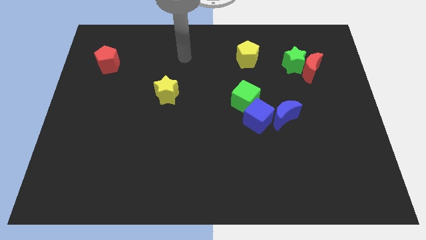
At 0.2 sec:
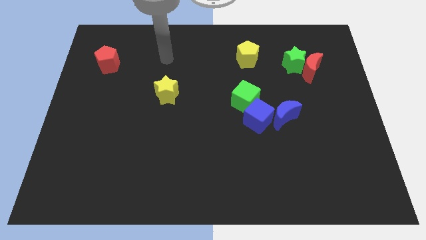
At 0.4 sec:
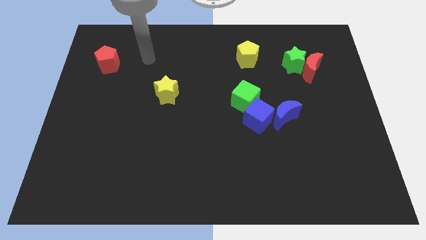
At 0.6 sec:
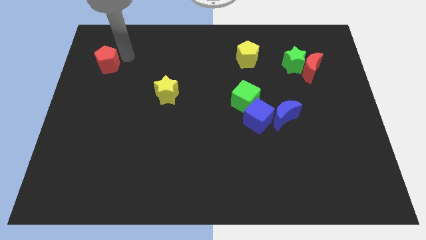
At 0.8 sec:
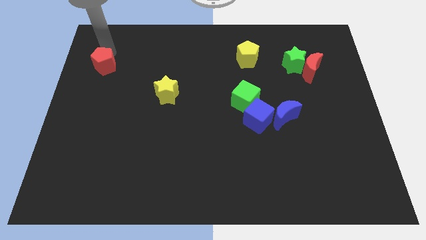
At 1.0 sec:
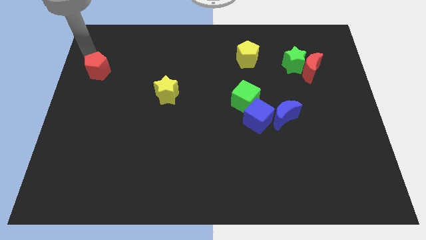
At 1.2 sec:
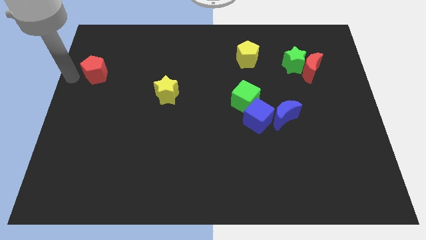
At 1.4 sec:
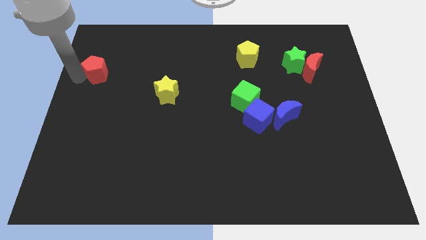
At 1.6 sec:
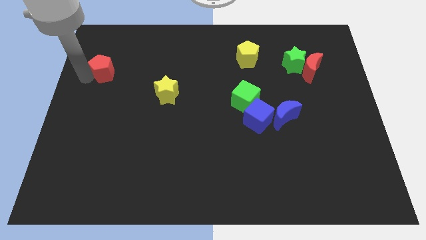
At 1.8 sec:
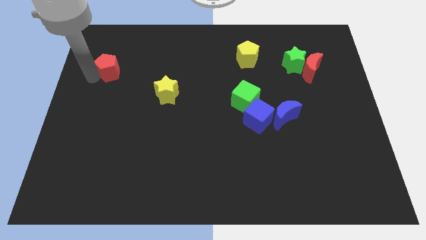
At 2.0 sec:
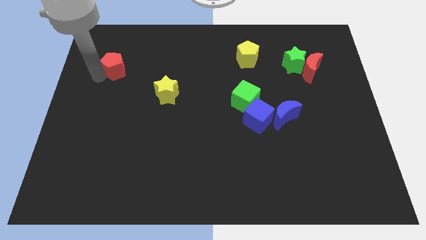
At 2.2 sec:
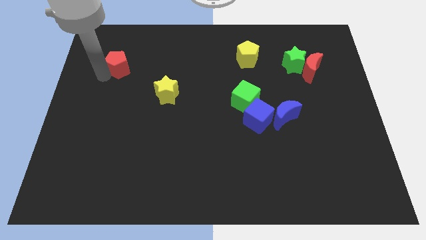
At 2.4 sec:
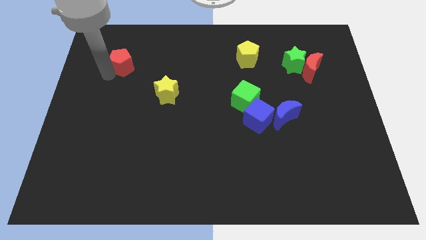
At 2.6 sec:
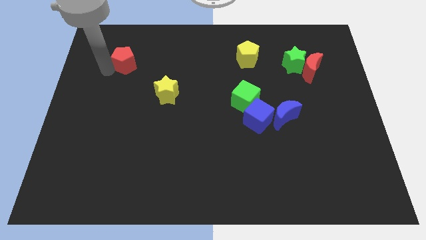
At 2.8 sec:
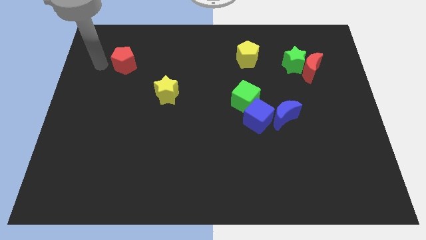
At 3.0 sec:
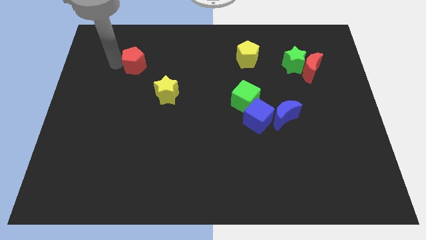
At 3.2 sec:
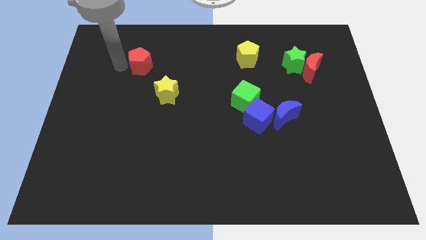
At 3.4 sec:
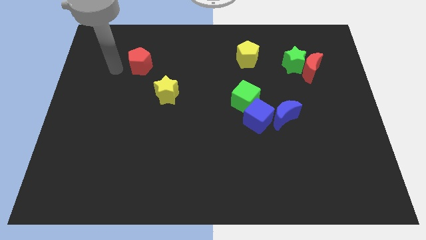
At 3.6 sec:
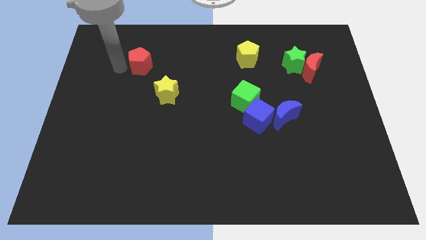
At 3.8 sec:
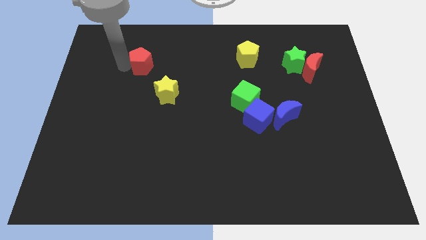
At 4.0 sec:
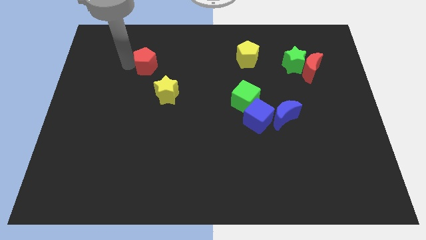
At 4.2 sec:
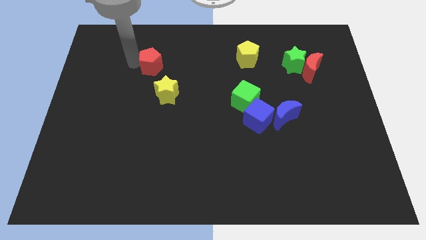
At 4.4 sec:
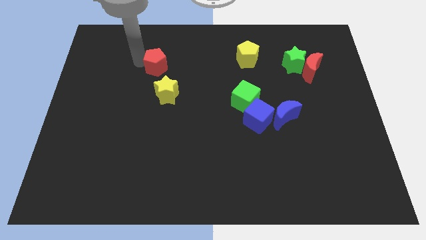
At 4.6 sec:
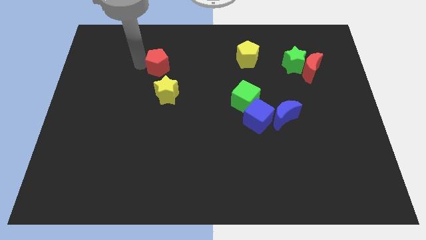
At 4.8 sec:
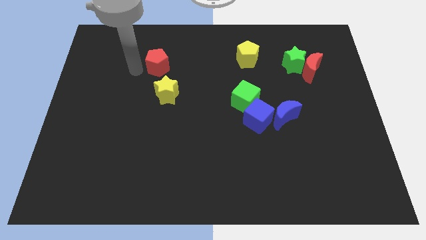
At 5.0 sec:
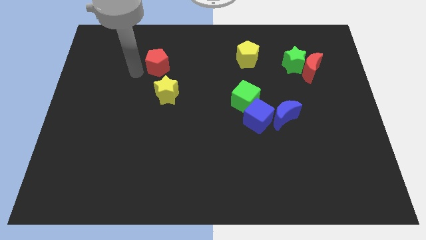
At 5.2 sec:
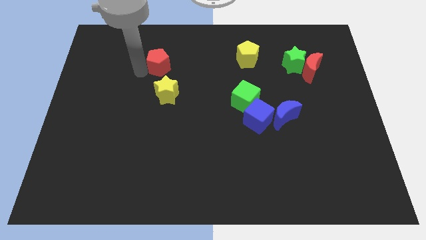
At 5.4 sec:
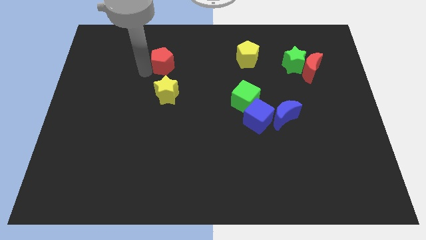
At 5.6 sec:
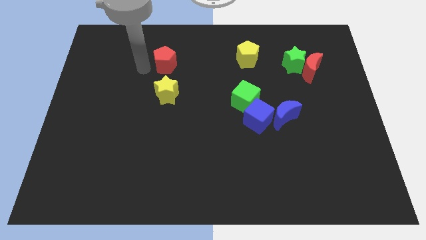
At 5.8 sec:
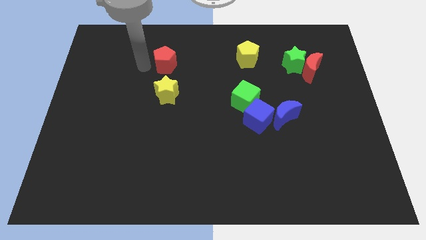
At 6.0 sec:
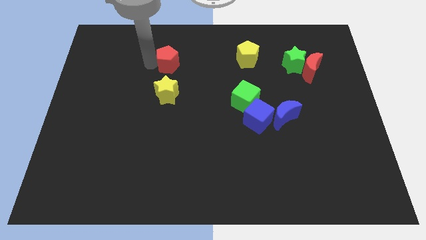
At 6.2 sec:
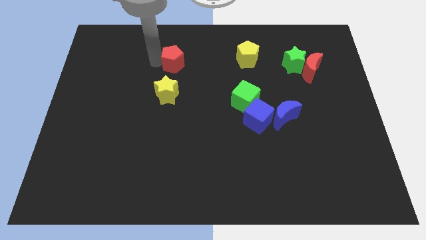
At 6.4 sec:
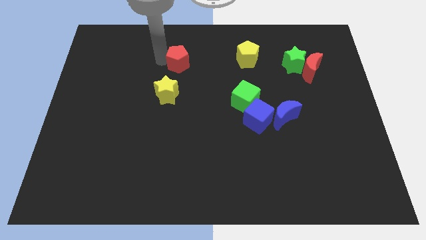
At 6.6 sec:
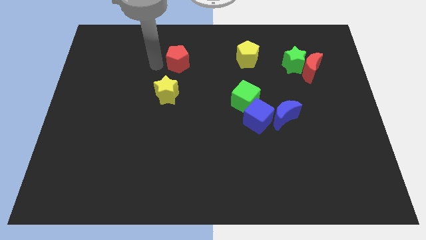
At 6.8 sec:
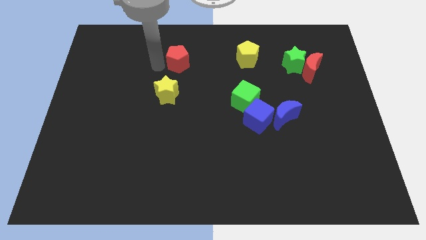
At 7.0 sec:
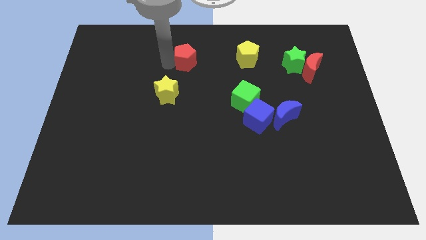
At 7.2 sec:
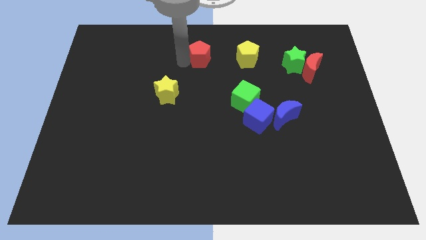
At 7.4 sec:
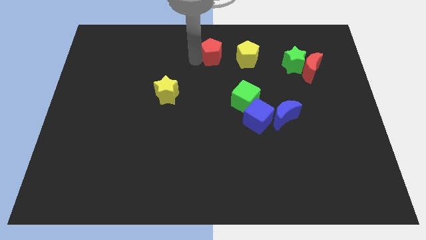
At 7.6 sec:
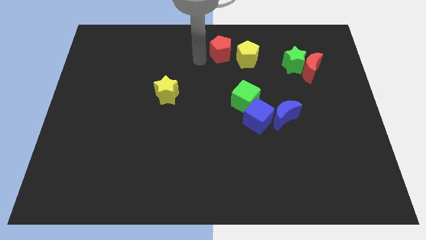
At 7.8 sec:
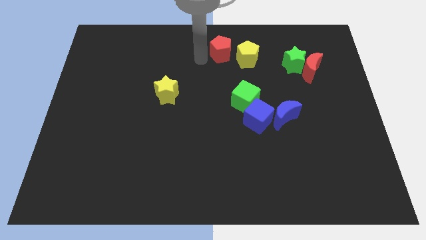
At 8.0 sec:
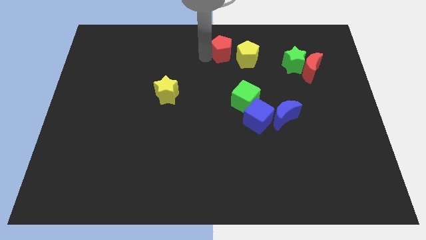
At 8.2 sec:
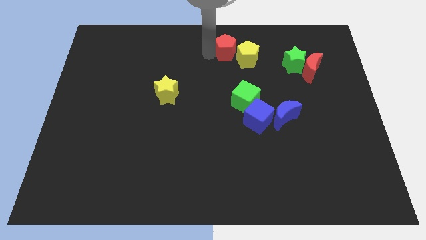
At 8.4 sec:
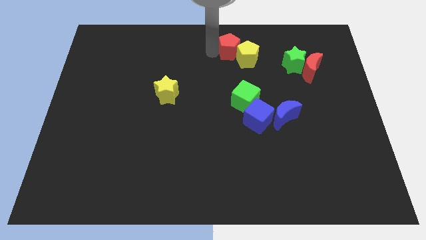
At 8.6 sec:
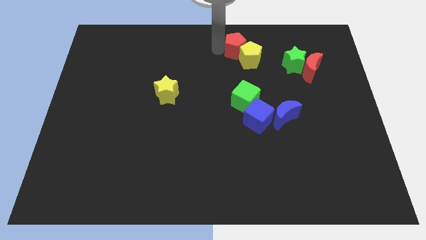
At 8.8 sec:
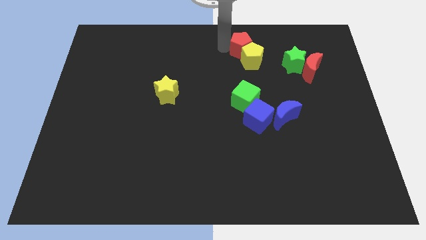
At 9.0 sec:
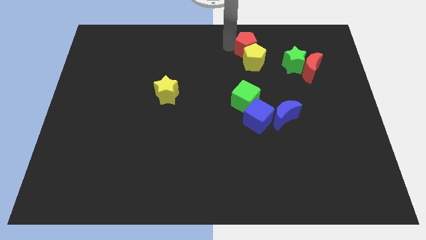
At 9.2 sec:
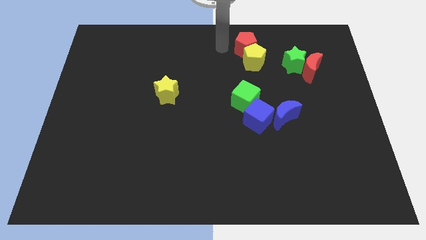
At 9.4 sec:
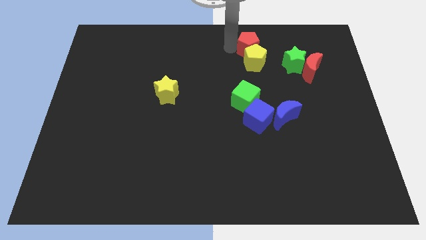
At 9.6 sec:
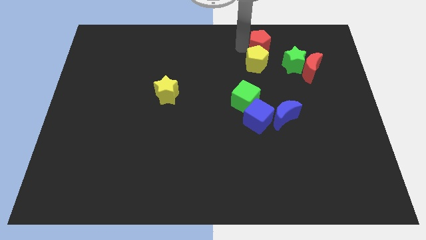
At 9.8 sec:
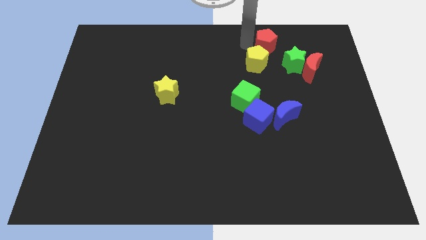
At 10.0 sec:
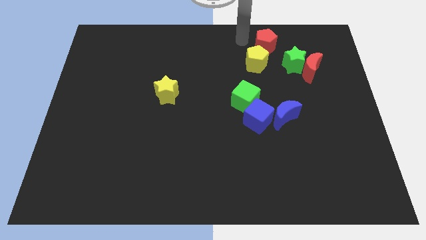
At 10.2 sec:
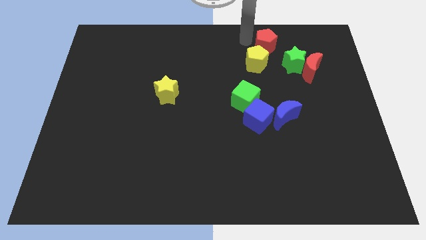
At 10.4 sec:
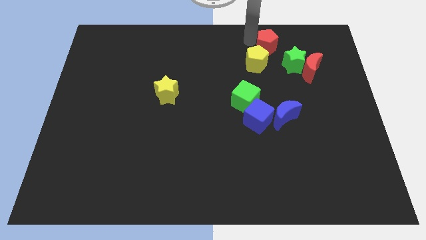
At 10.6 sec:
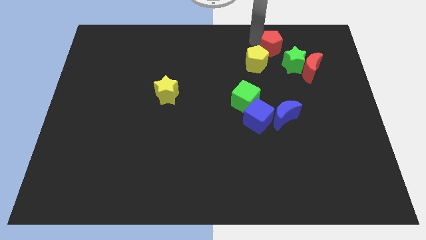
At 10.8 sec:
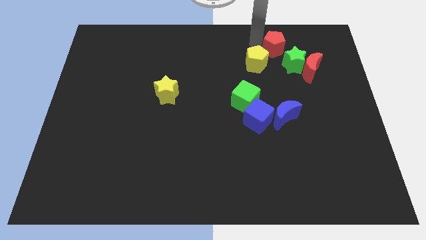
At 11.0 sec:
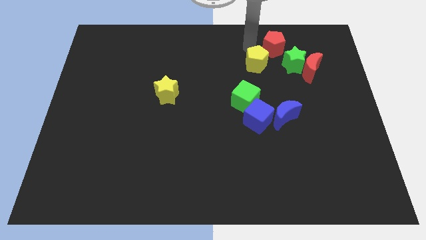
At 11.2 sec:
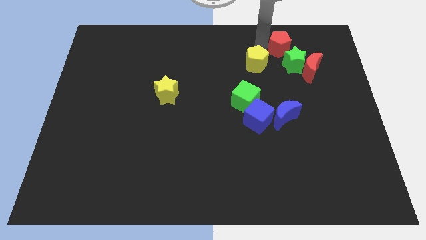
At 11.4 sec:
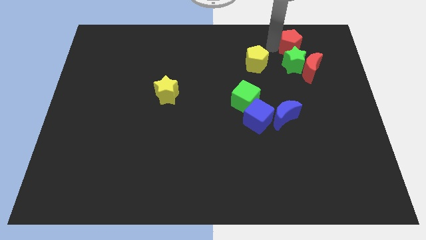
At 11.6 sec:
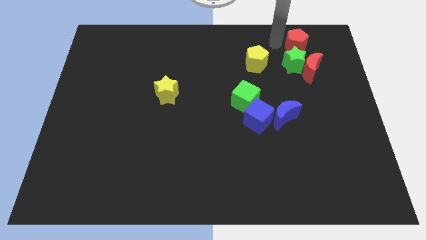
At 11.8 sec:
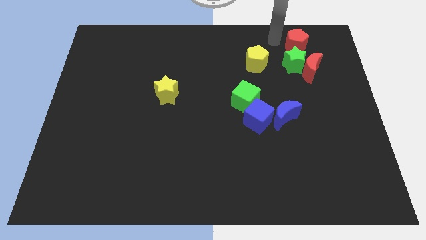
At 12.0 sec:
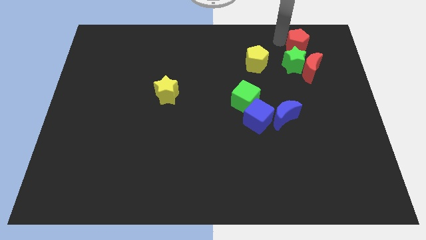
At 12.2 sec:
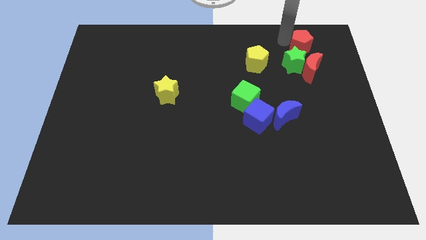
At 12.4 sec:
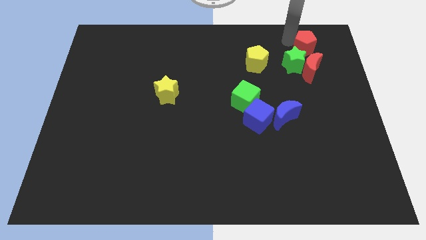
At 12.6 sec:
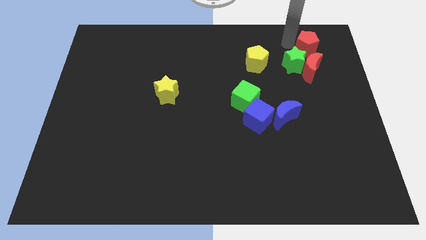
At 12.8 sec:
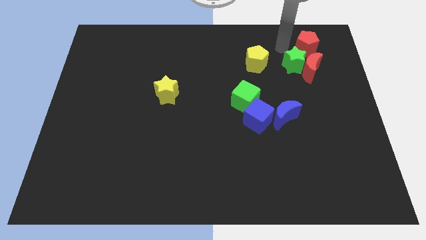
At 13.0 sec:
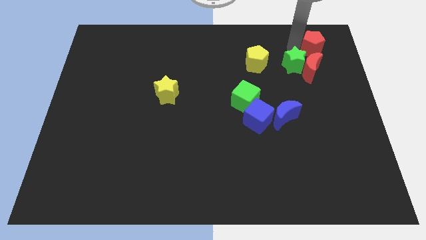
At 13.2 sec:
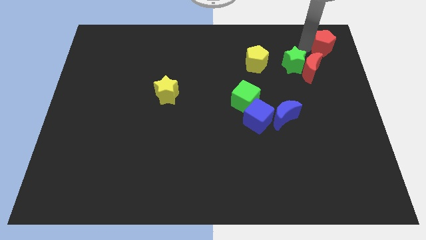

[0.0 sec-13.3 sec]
move the red pentagon to the upper right corner

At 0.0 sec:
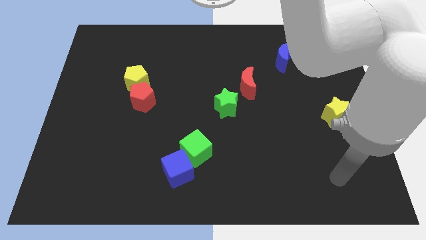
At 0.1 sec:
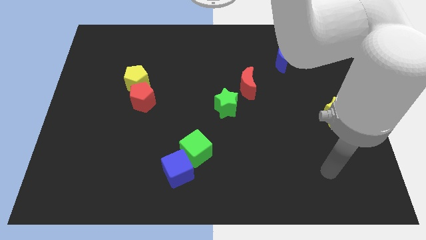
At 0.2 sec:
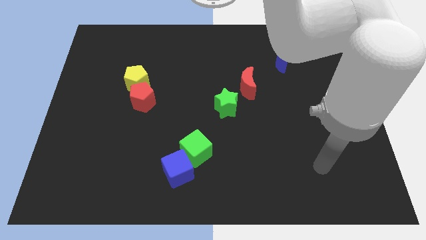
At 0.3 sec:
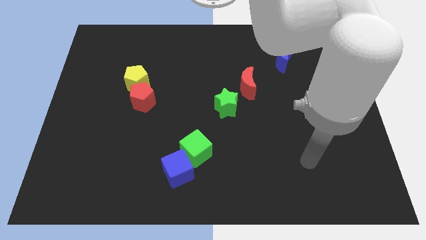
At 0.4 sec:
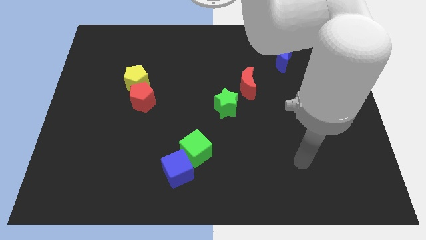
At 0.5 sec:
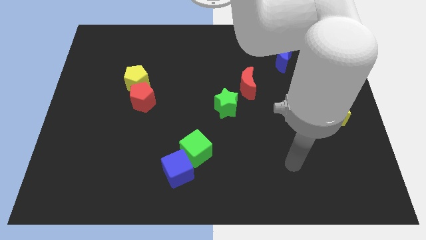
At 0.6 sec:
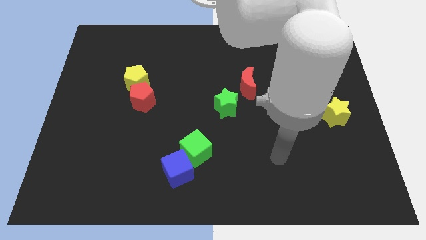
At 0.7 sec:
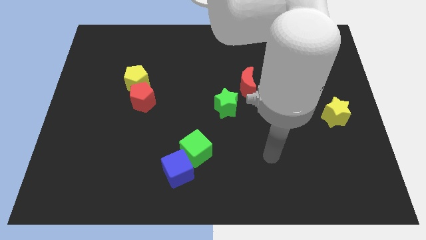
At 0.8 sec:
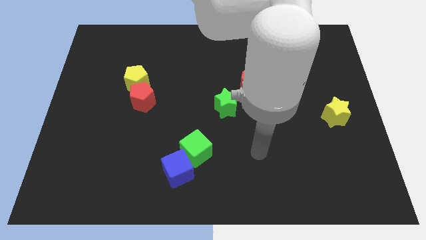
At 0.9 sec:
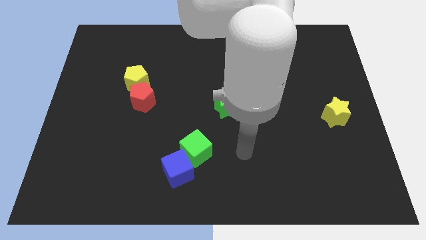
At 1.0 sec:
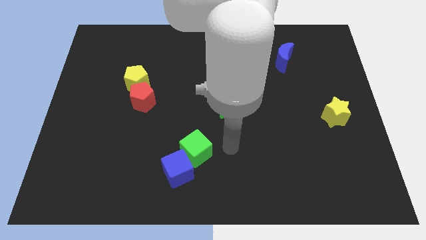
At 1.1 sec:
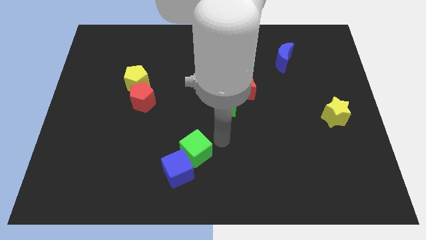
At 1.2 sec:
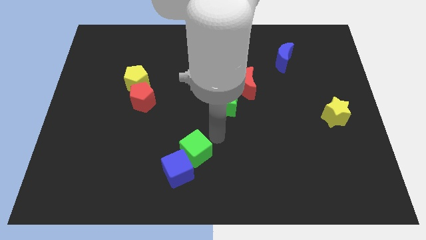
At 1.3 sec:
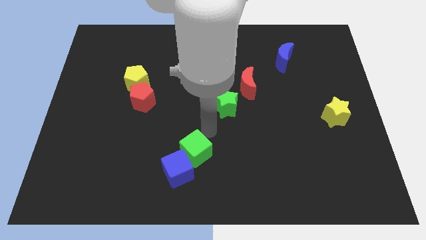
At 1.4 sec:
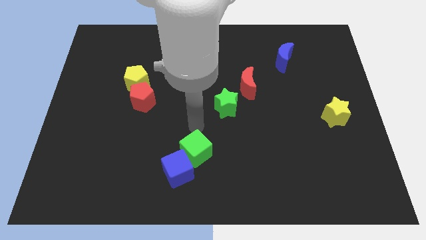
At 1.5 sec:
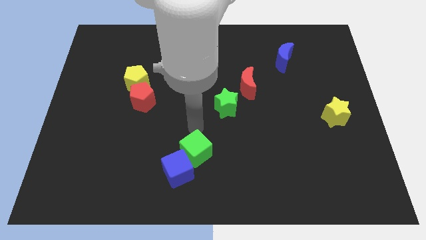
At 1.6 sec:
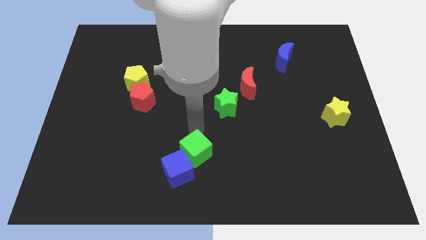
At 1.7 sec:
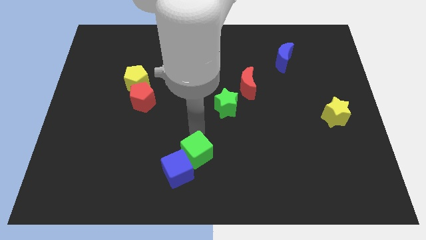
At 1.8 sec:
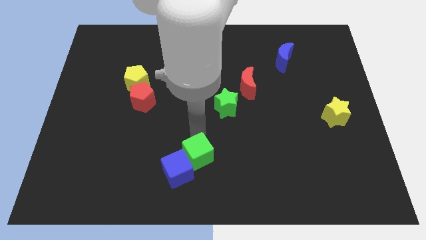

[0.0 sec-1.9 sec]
push the green cube to the bottom
